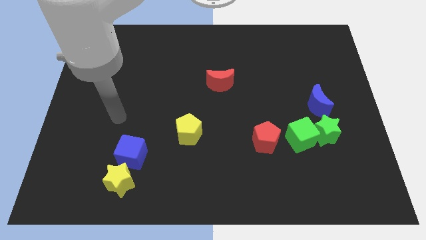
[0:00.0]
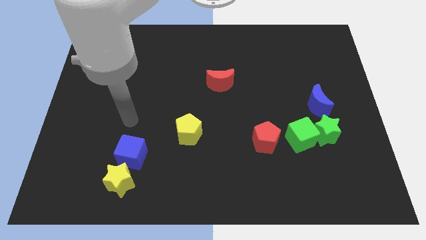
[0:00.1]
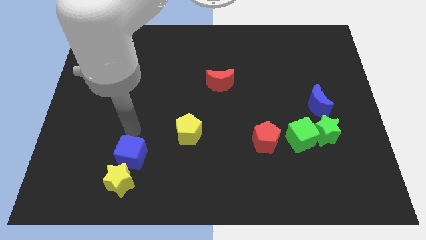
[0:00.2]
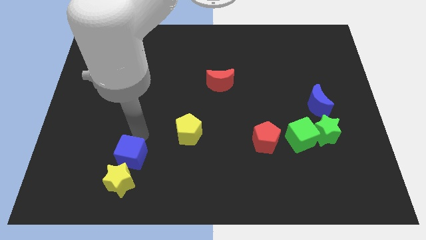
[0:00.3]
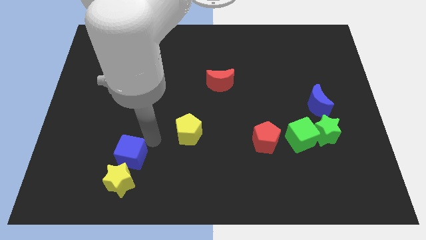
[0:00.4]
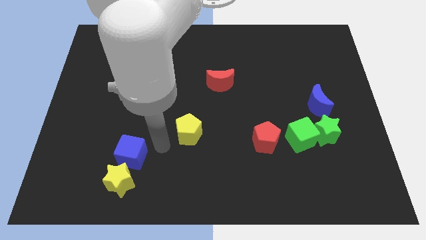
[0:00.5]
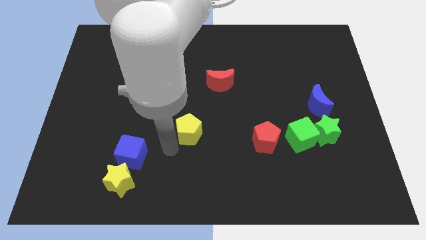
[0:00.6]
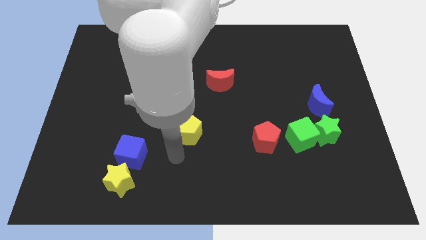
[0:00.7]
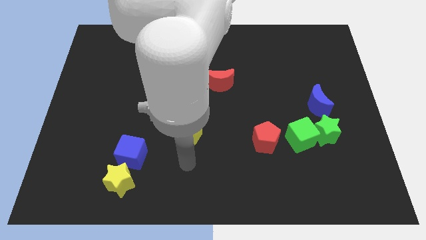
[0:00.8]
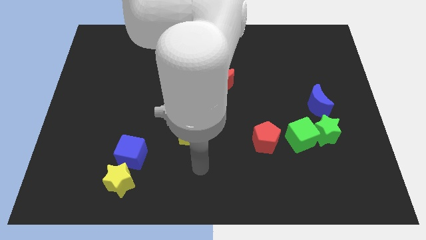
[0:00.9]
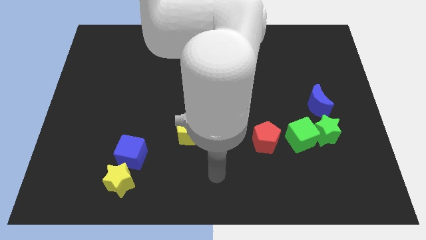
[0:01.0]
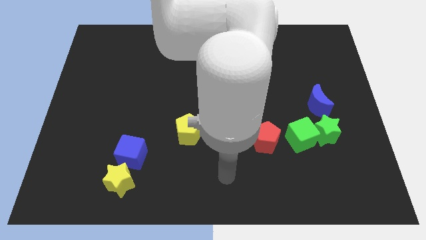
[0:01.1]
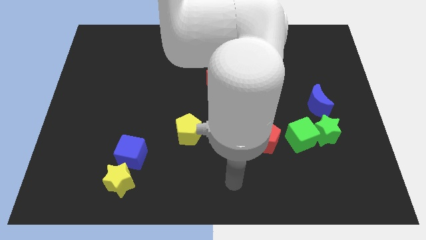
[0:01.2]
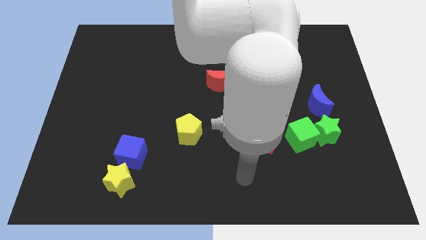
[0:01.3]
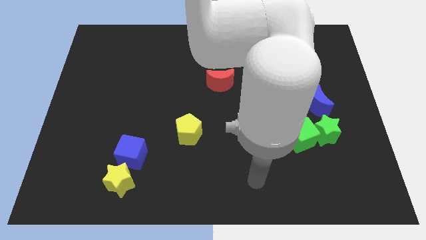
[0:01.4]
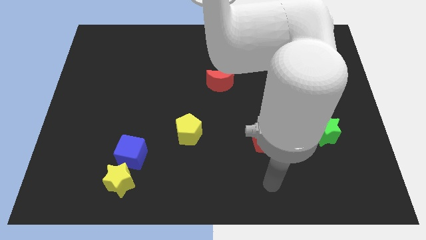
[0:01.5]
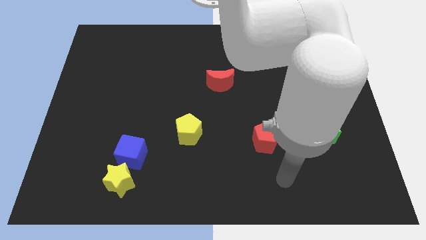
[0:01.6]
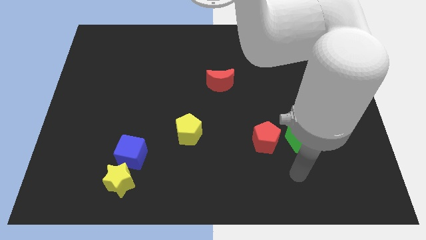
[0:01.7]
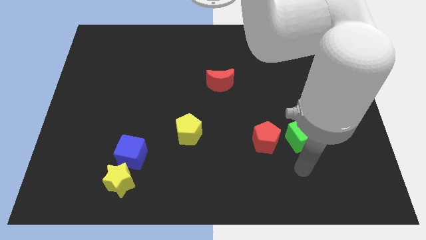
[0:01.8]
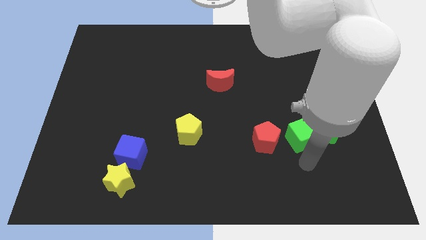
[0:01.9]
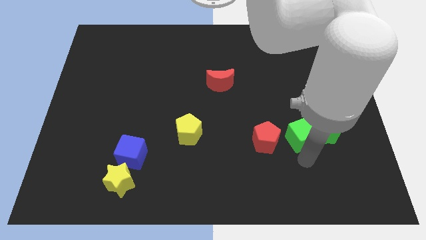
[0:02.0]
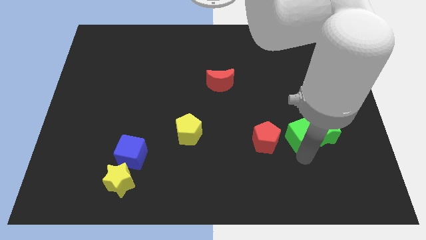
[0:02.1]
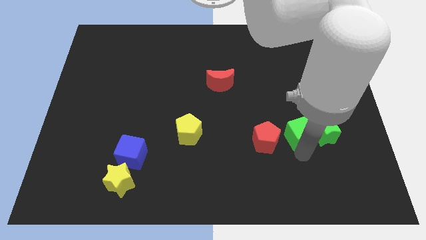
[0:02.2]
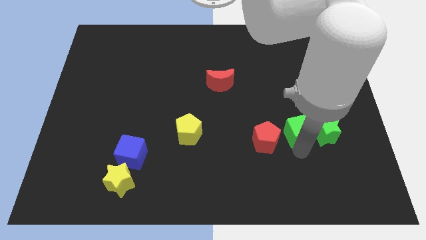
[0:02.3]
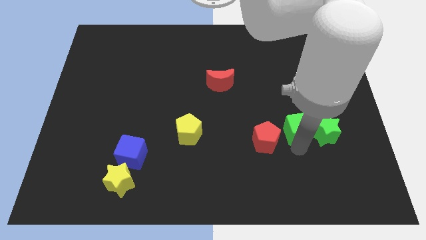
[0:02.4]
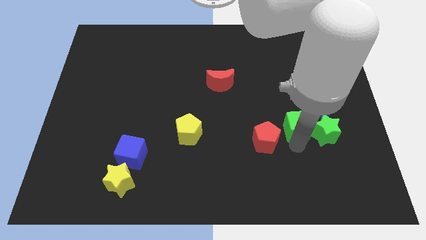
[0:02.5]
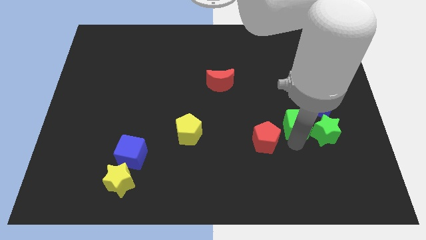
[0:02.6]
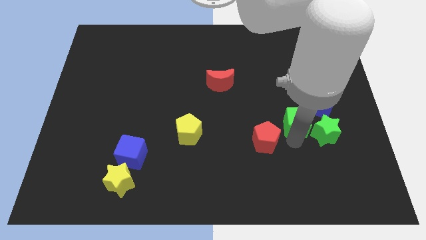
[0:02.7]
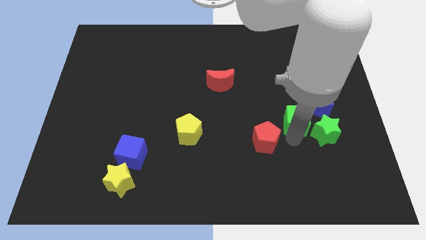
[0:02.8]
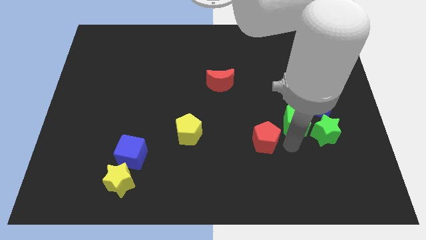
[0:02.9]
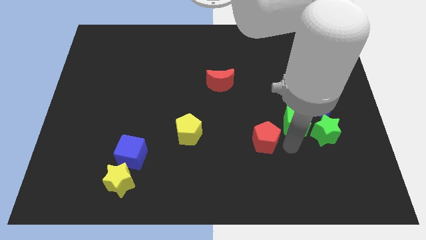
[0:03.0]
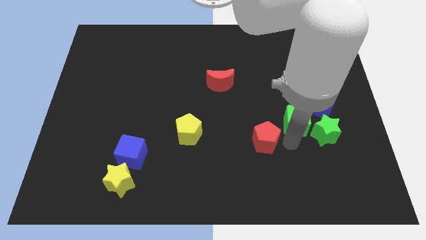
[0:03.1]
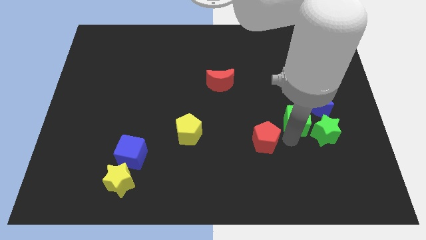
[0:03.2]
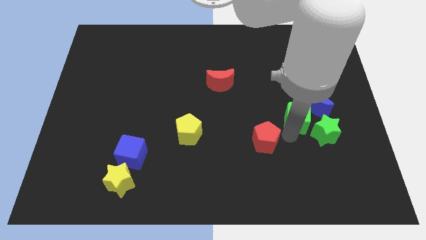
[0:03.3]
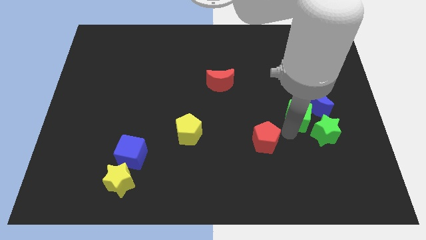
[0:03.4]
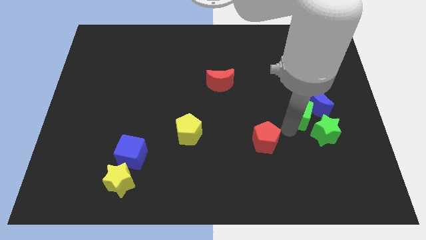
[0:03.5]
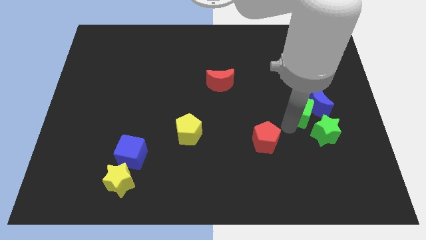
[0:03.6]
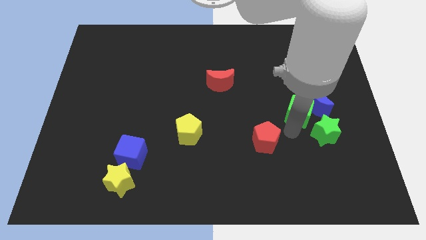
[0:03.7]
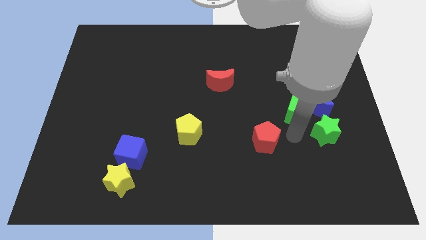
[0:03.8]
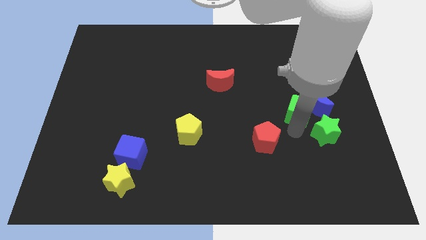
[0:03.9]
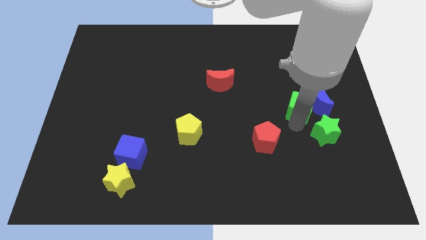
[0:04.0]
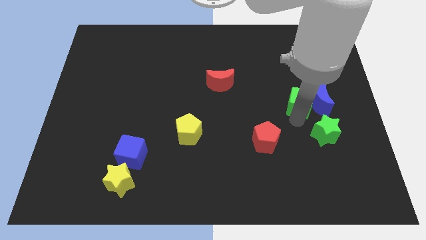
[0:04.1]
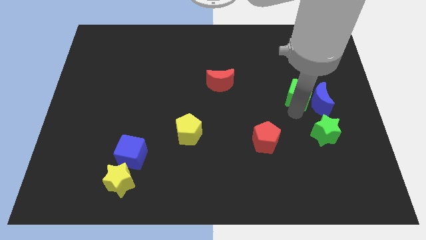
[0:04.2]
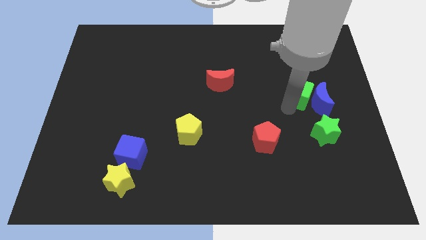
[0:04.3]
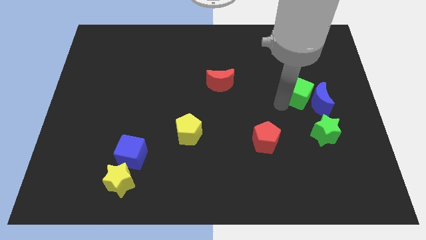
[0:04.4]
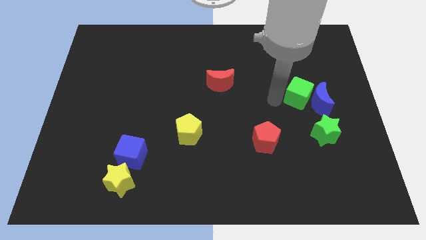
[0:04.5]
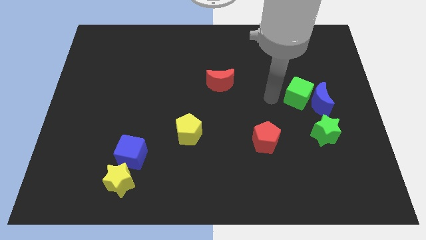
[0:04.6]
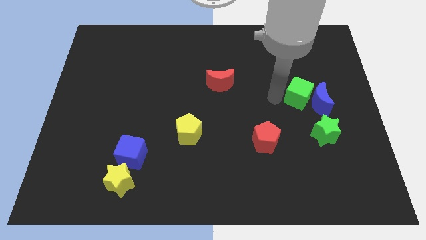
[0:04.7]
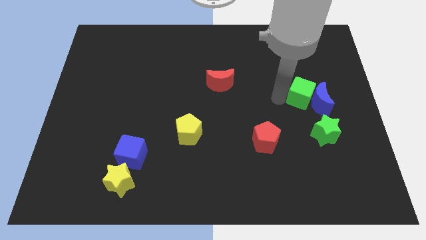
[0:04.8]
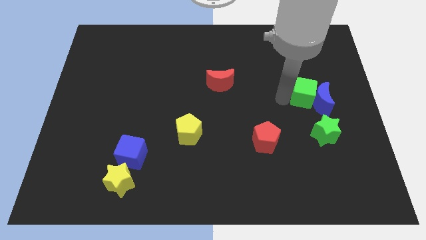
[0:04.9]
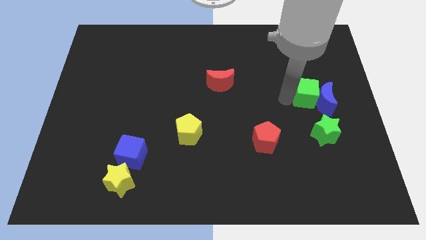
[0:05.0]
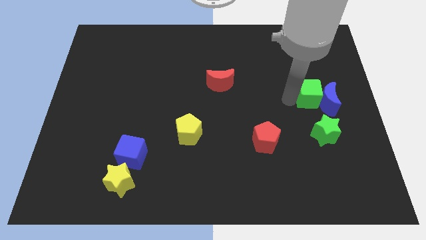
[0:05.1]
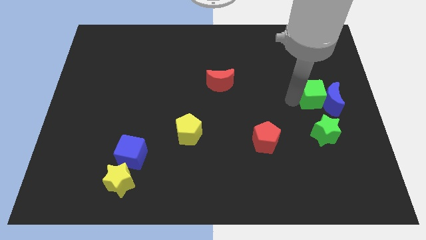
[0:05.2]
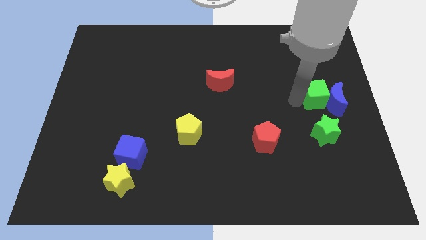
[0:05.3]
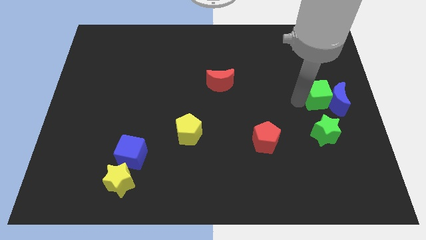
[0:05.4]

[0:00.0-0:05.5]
push the green cube to the center right

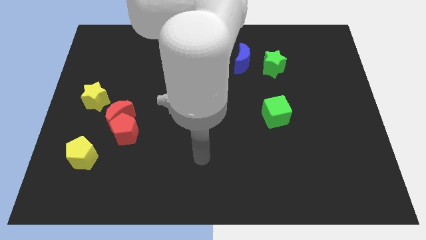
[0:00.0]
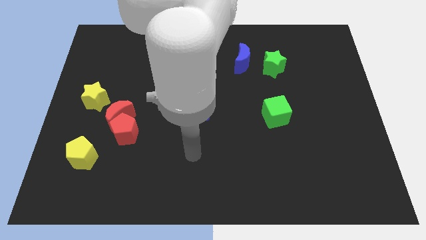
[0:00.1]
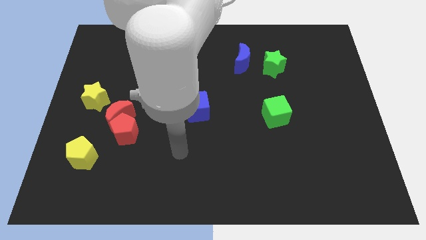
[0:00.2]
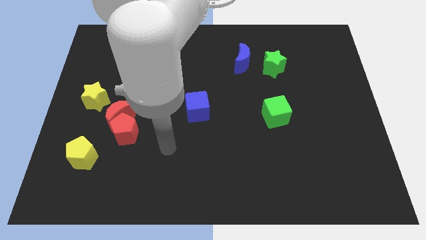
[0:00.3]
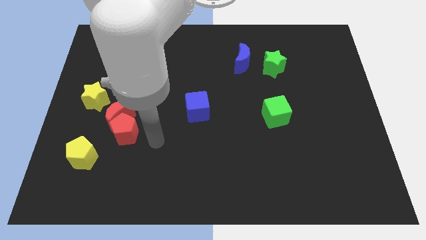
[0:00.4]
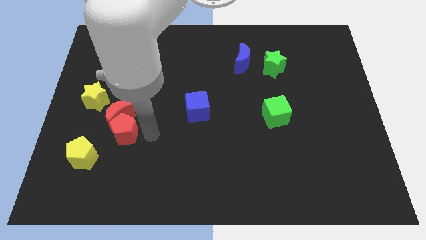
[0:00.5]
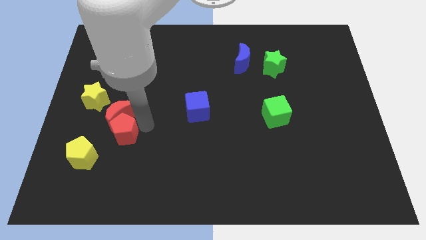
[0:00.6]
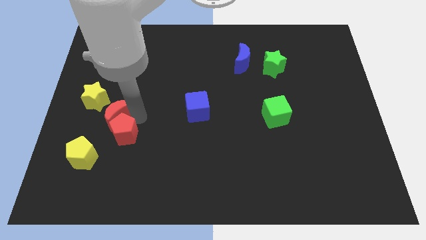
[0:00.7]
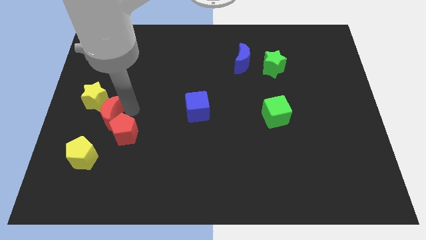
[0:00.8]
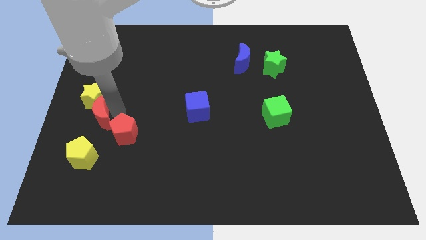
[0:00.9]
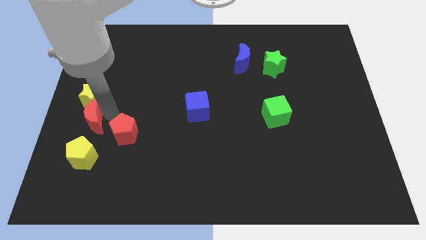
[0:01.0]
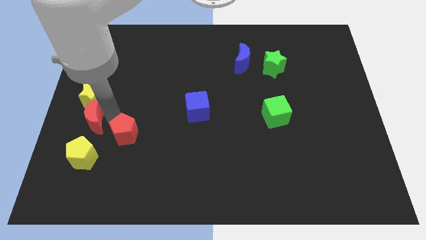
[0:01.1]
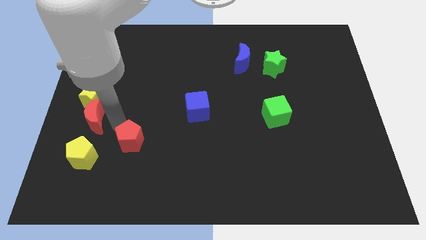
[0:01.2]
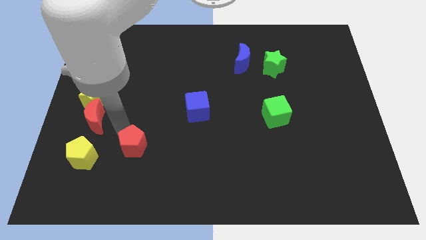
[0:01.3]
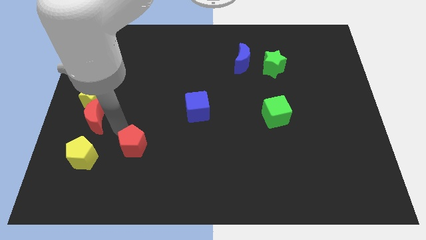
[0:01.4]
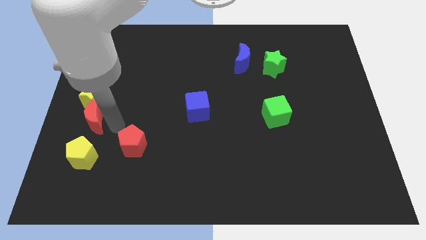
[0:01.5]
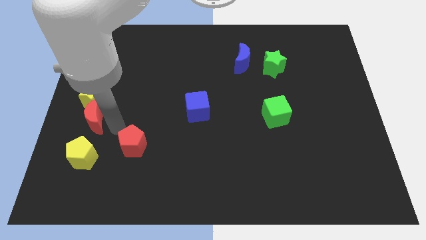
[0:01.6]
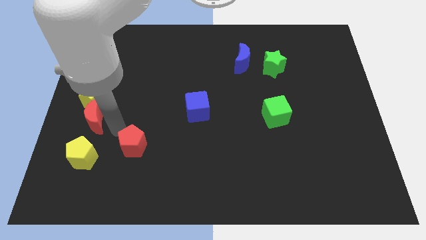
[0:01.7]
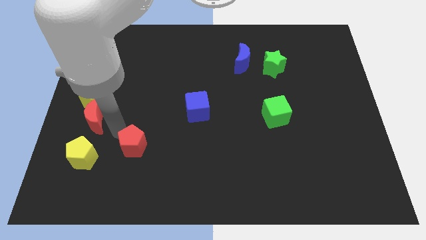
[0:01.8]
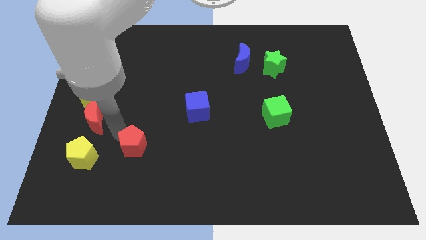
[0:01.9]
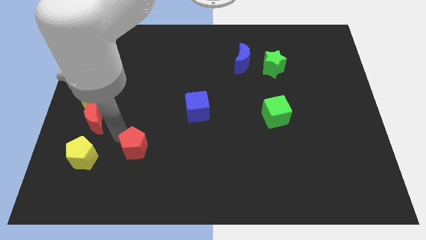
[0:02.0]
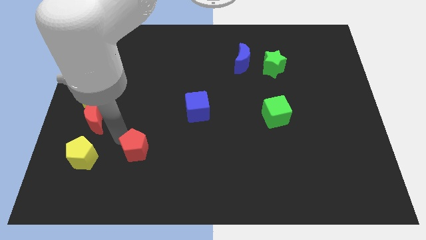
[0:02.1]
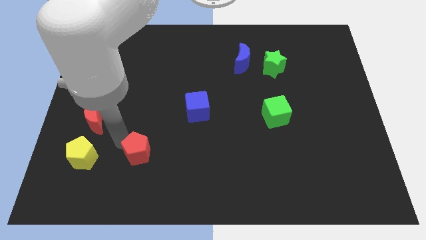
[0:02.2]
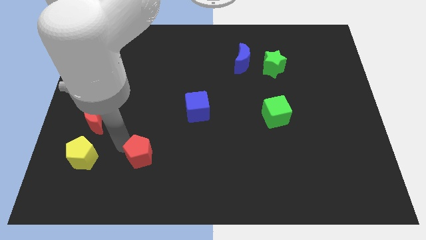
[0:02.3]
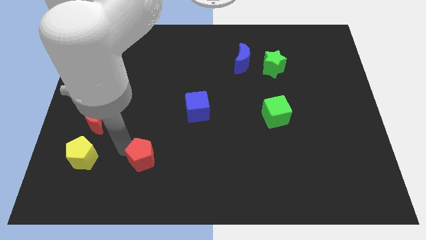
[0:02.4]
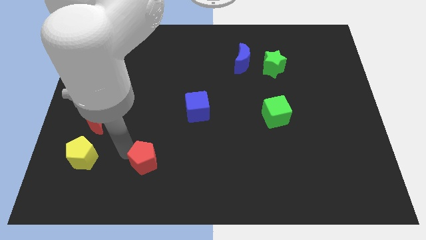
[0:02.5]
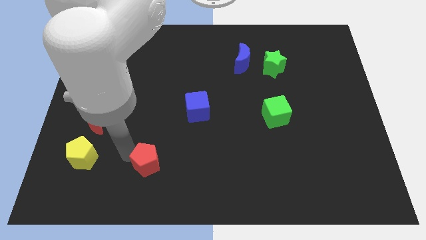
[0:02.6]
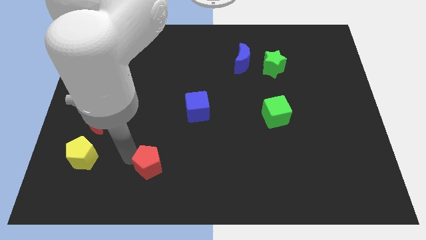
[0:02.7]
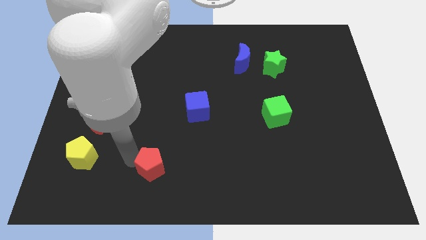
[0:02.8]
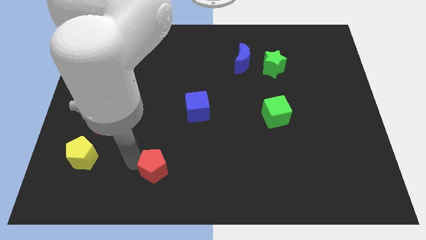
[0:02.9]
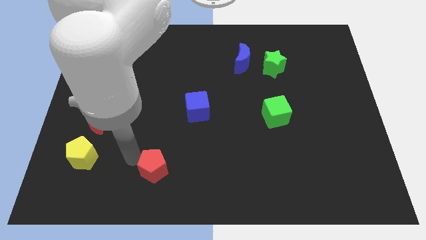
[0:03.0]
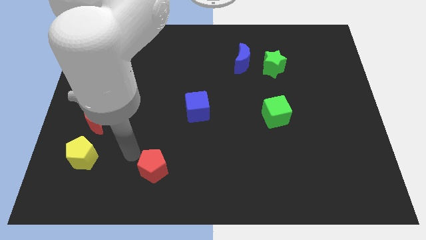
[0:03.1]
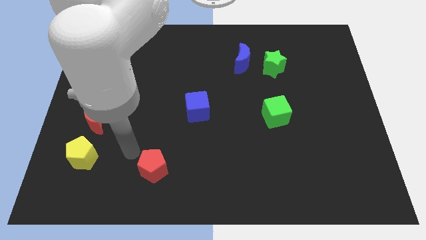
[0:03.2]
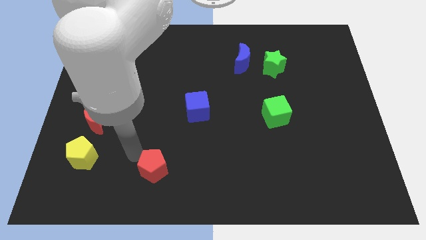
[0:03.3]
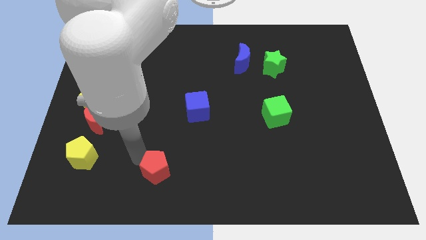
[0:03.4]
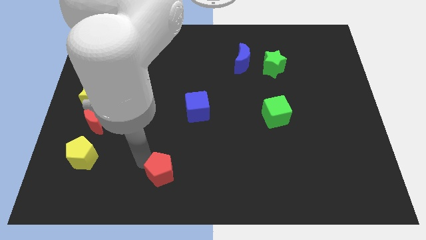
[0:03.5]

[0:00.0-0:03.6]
slide the red pentagon to the bottom side
